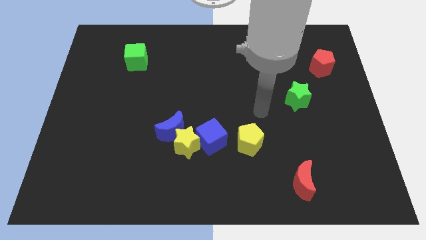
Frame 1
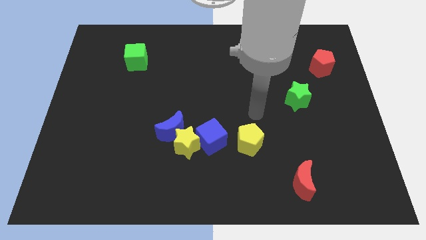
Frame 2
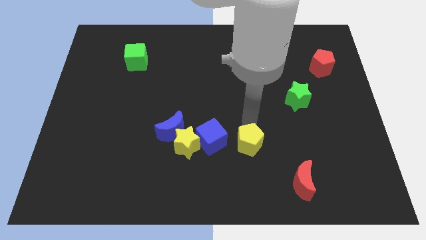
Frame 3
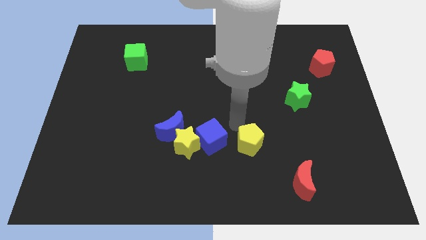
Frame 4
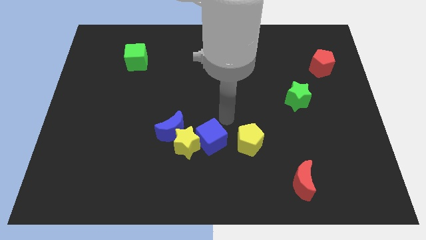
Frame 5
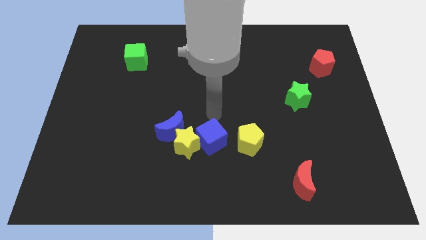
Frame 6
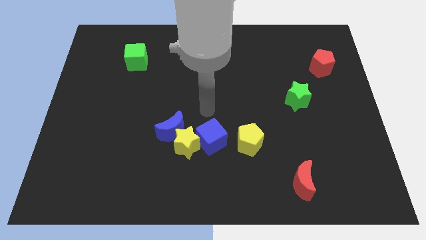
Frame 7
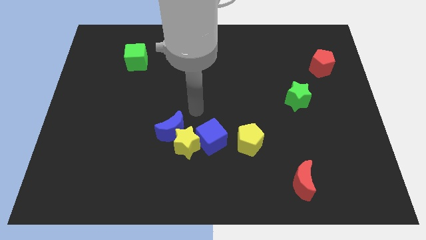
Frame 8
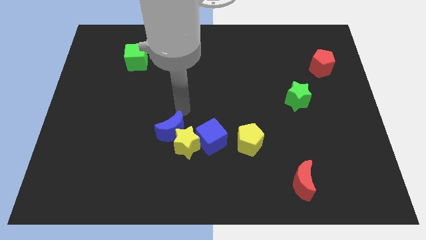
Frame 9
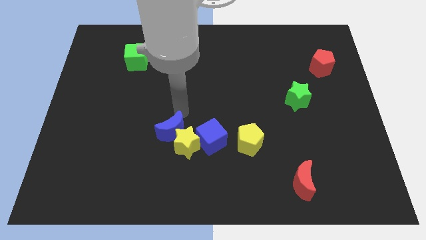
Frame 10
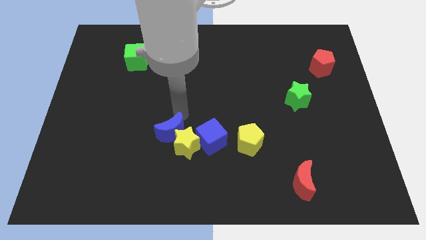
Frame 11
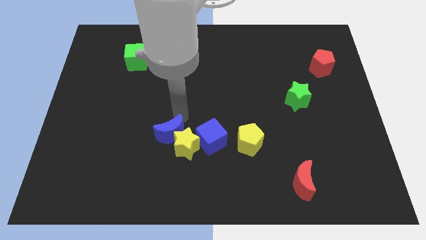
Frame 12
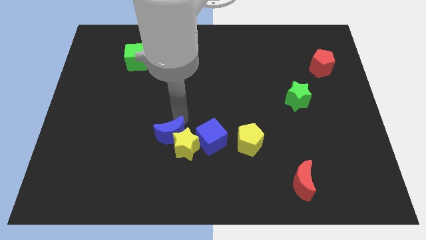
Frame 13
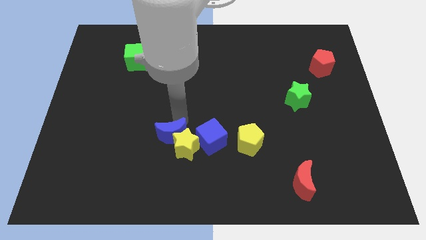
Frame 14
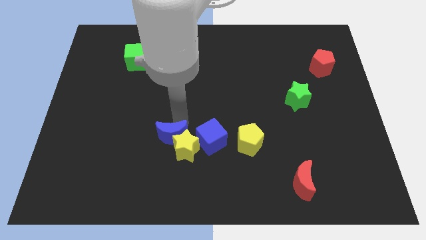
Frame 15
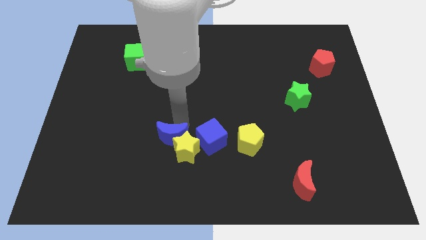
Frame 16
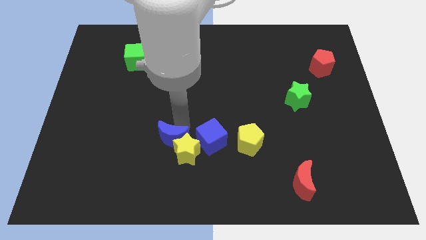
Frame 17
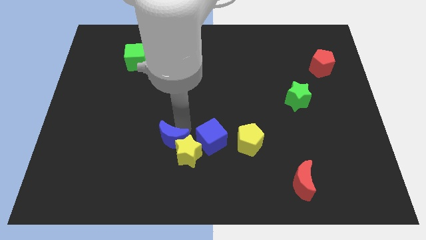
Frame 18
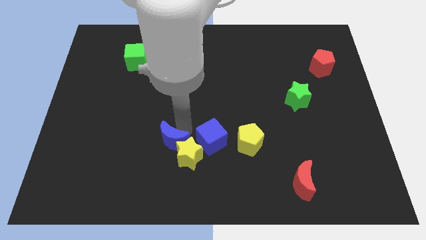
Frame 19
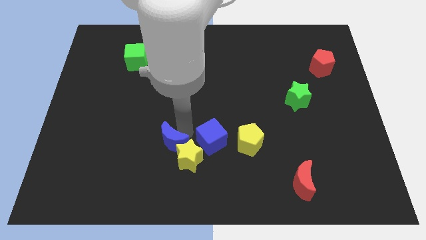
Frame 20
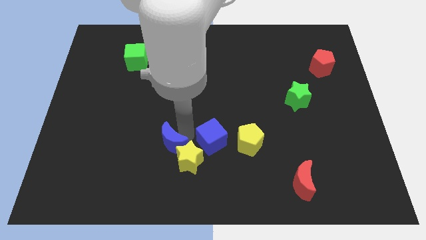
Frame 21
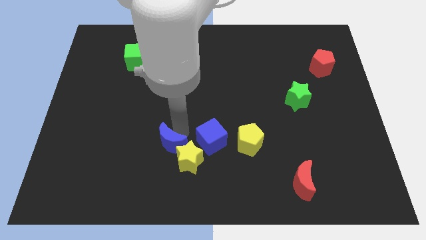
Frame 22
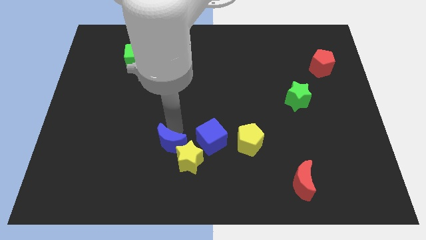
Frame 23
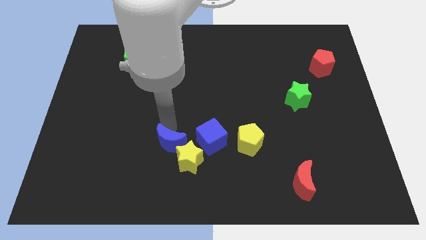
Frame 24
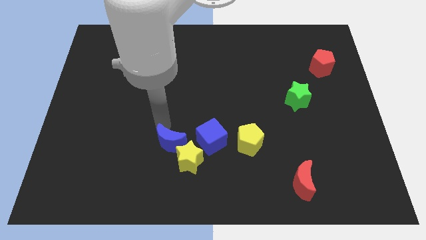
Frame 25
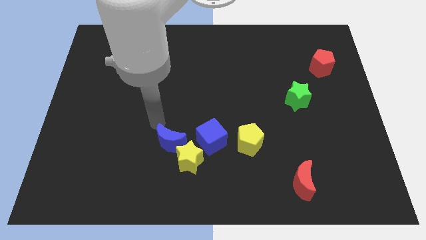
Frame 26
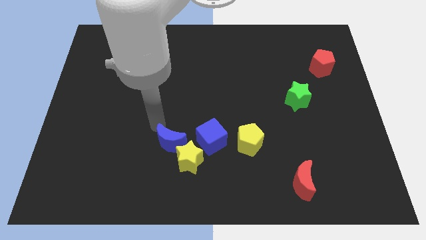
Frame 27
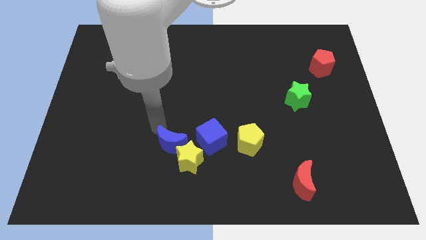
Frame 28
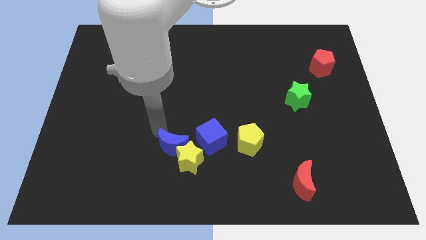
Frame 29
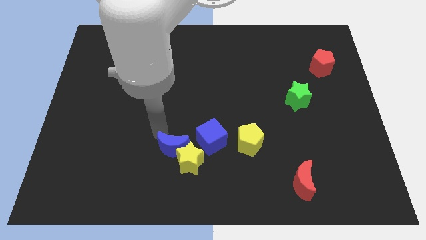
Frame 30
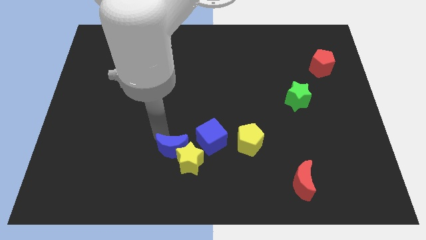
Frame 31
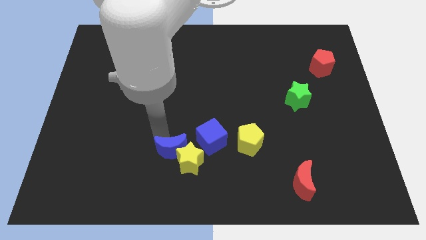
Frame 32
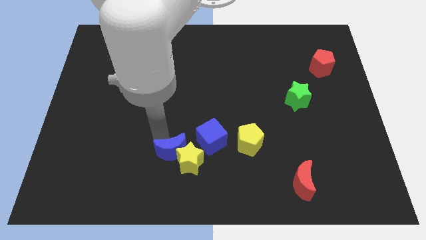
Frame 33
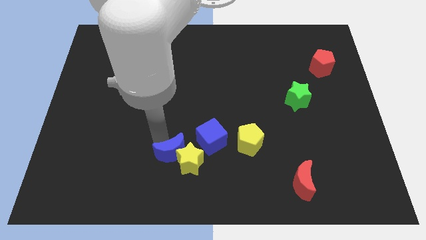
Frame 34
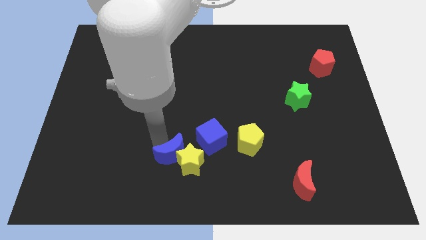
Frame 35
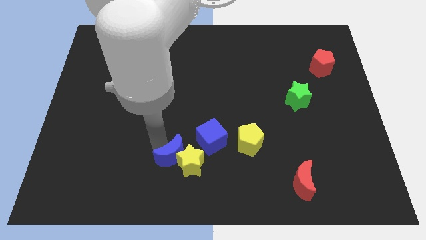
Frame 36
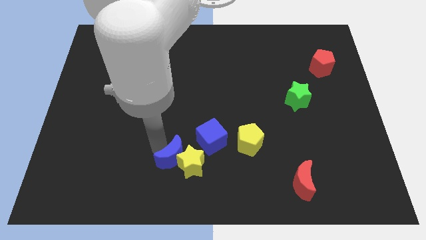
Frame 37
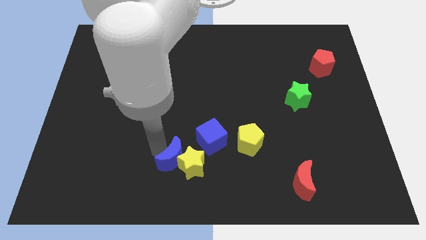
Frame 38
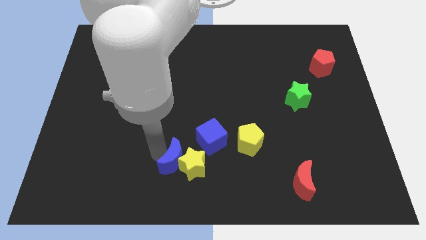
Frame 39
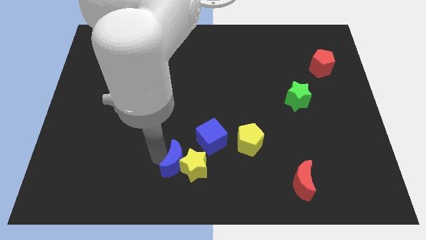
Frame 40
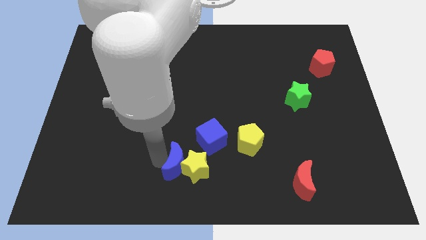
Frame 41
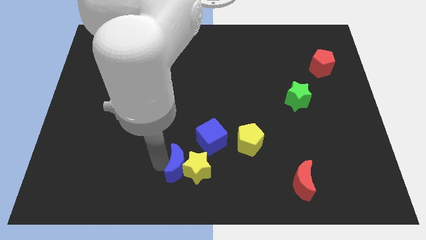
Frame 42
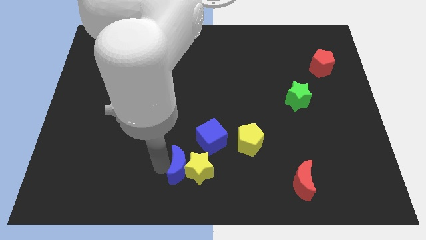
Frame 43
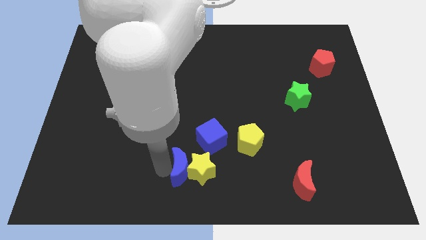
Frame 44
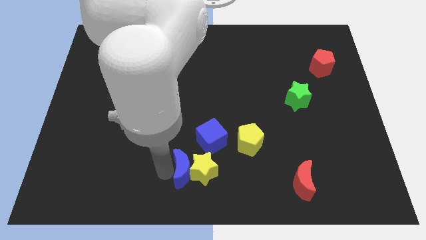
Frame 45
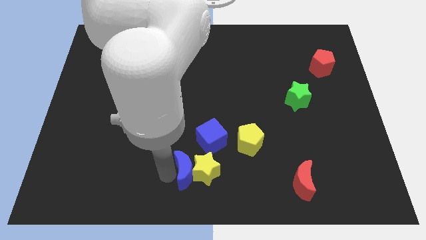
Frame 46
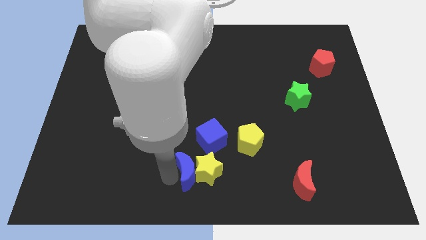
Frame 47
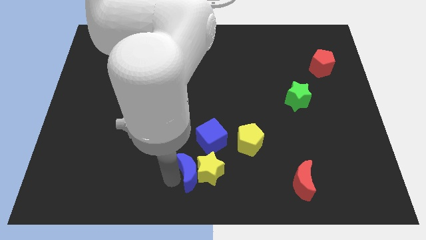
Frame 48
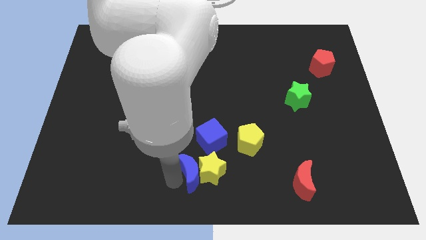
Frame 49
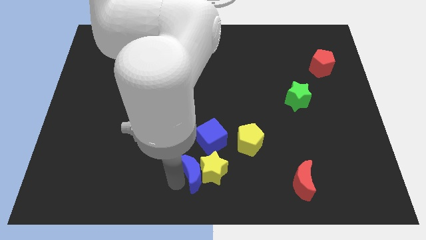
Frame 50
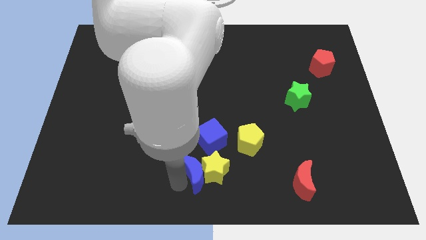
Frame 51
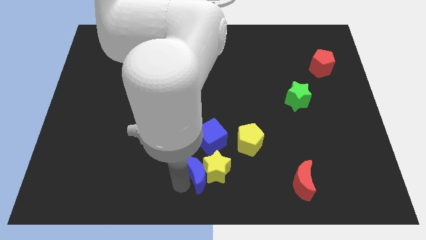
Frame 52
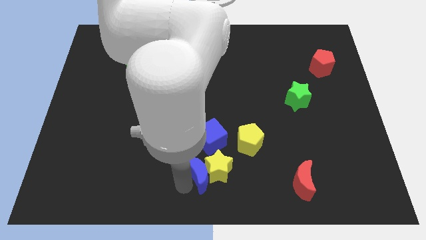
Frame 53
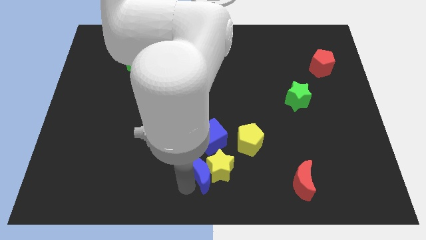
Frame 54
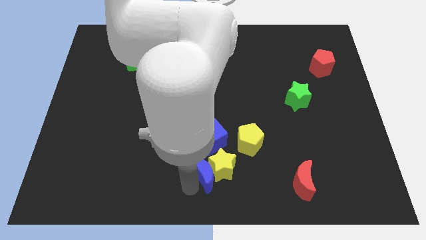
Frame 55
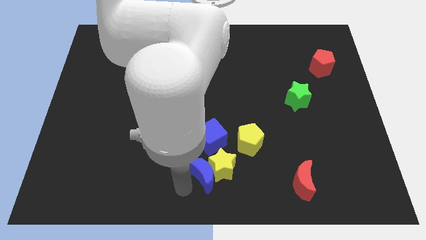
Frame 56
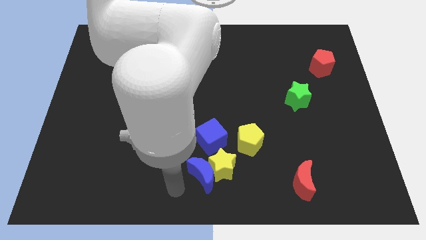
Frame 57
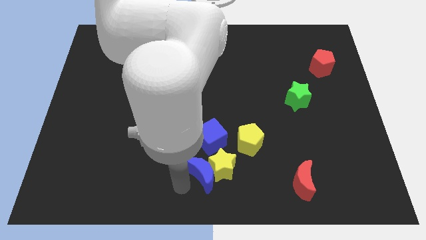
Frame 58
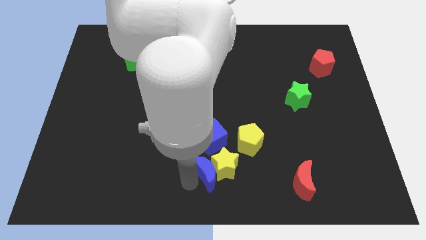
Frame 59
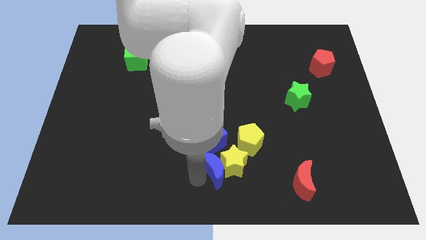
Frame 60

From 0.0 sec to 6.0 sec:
move the blue moon to the bottom right of the blue cube
